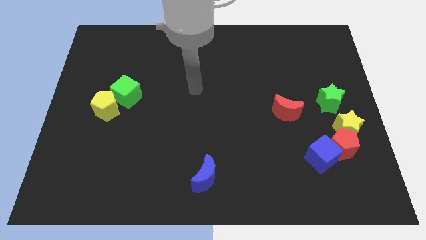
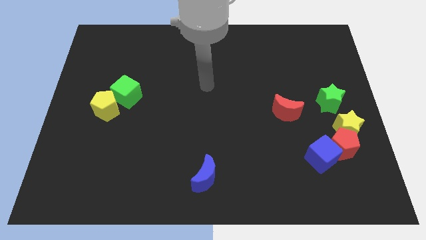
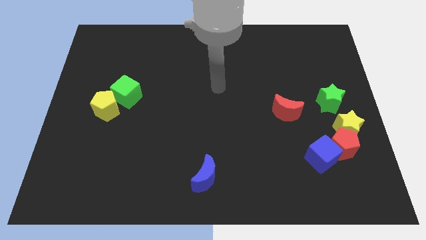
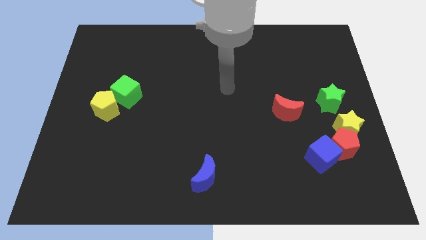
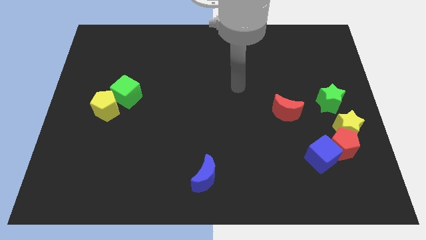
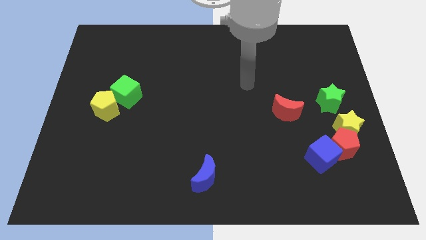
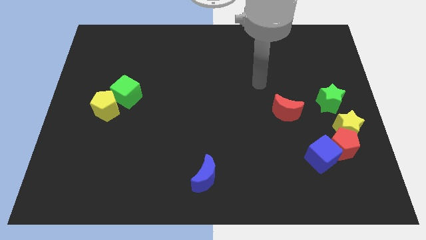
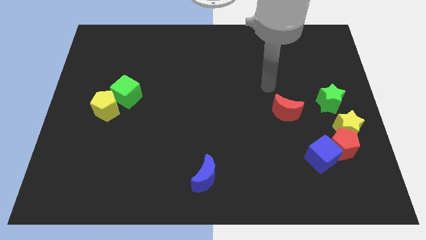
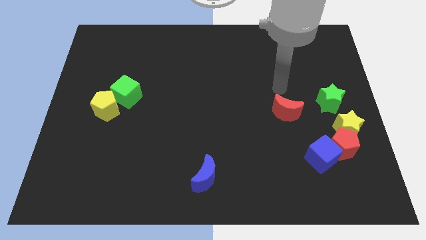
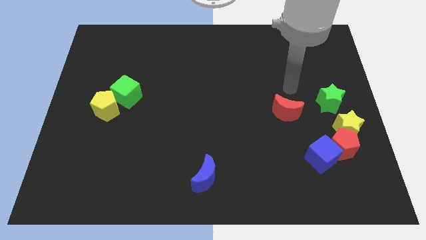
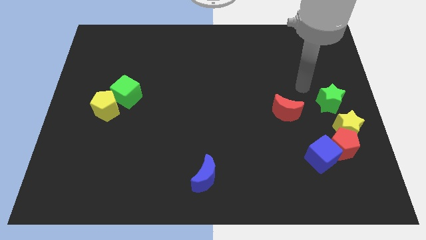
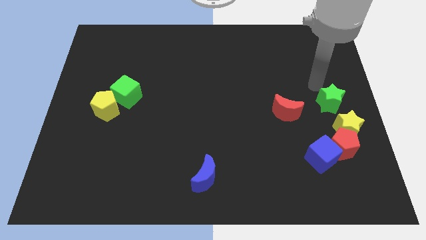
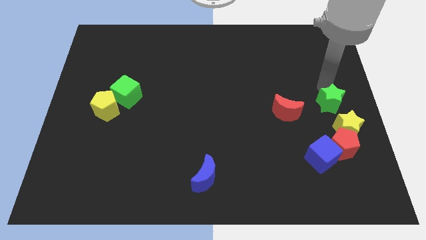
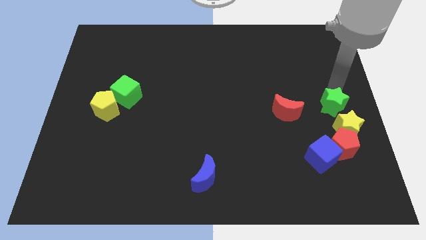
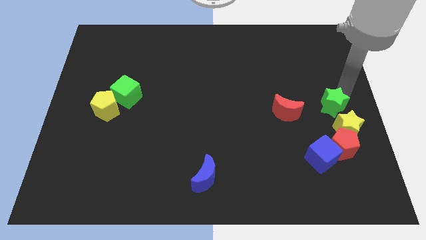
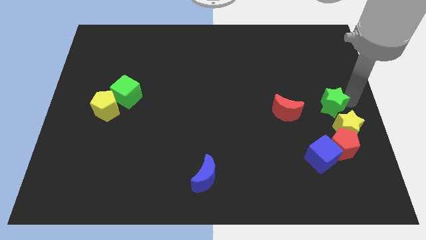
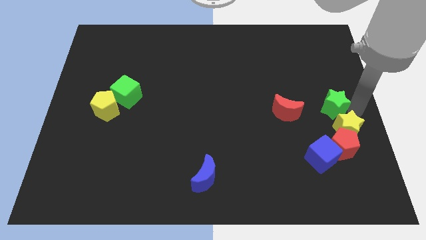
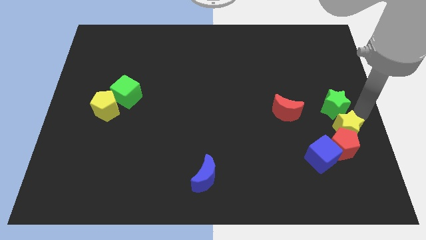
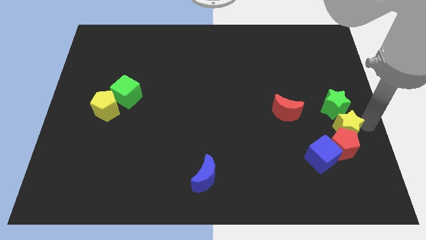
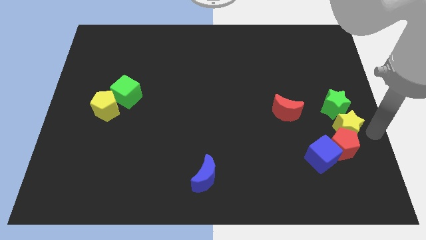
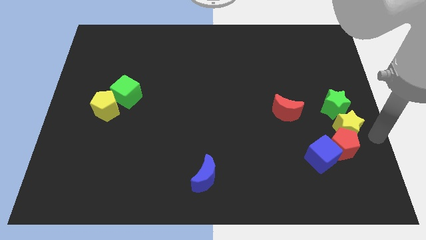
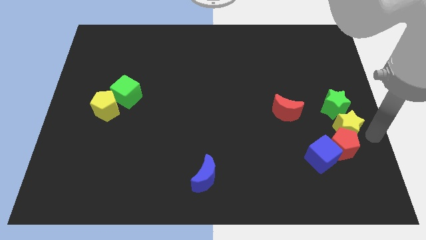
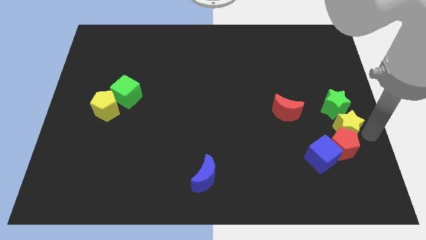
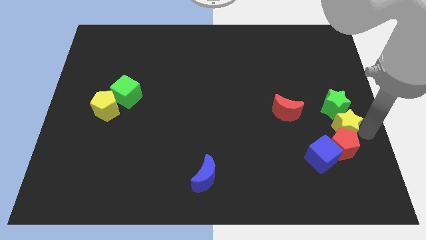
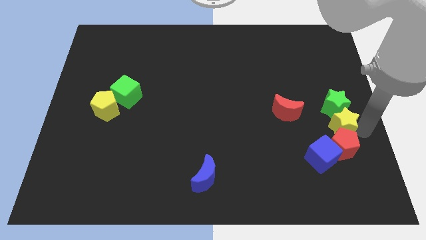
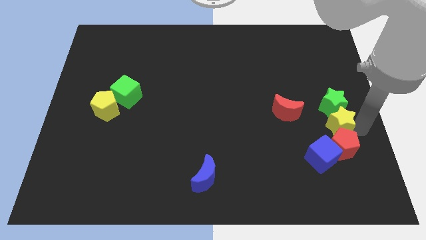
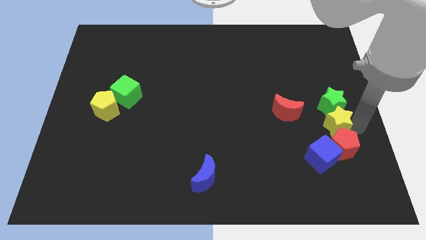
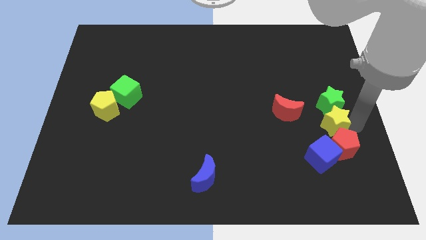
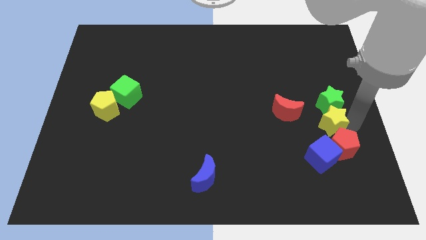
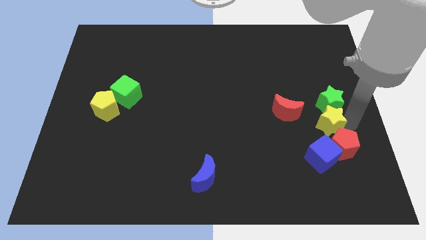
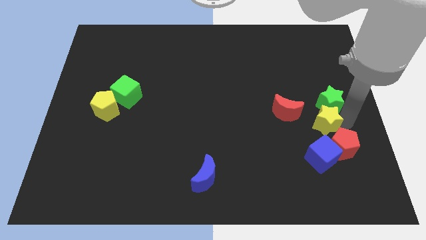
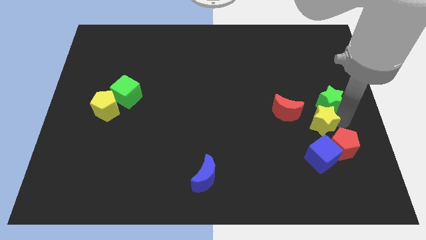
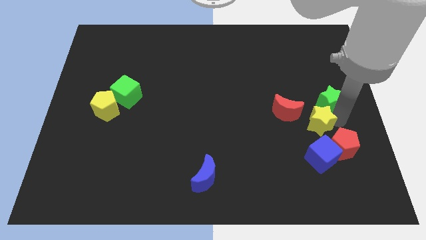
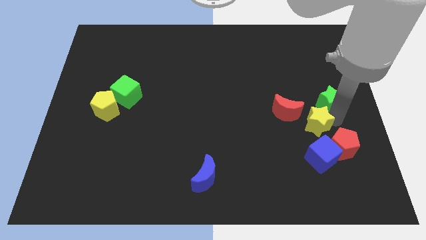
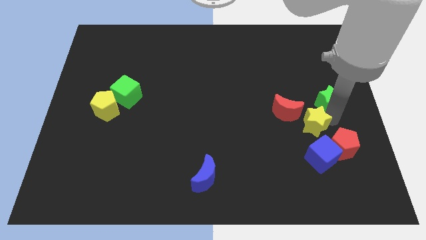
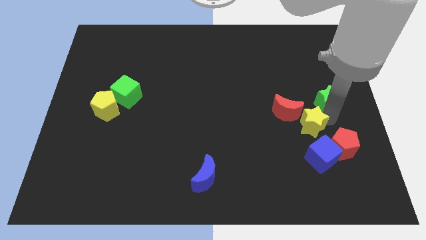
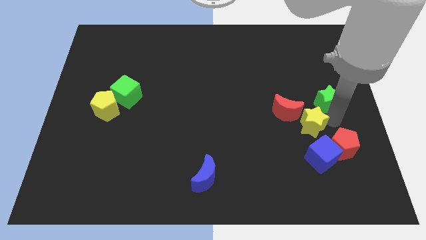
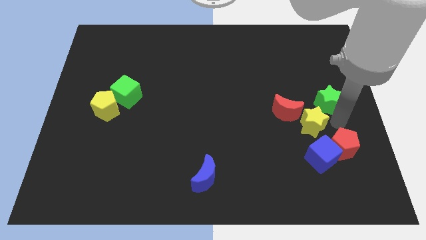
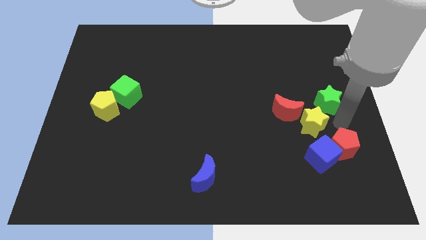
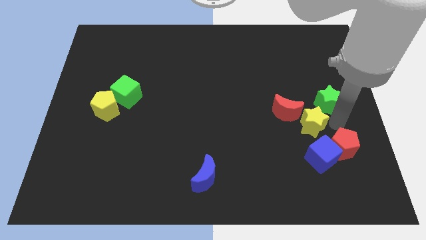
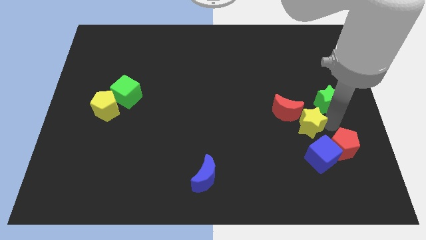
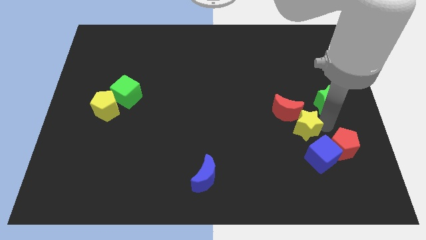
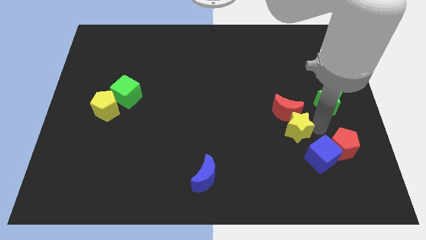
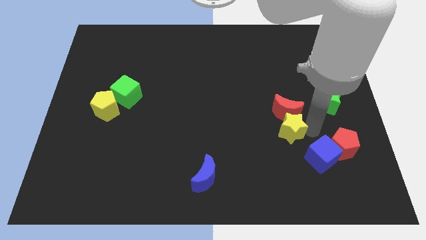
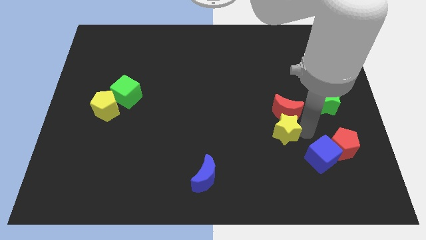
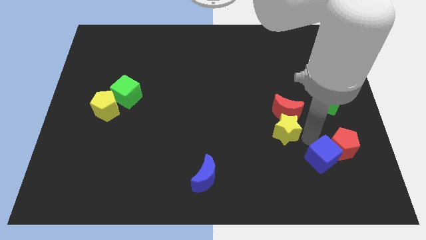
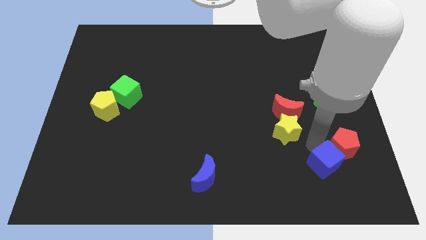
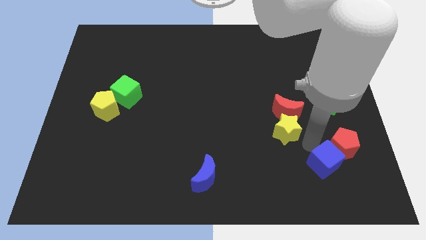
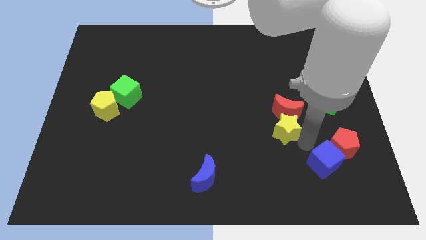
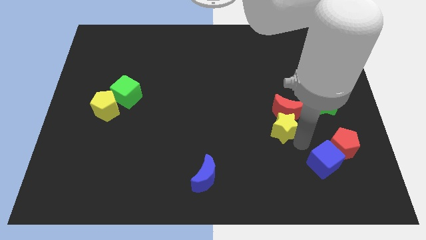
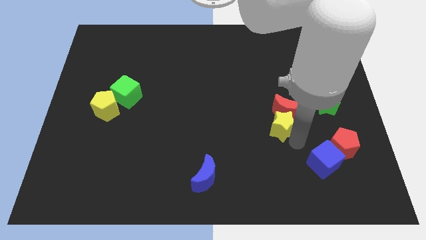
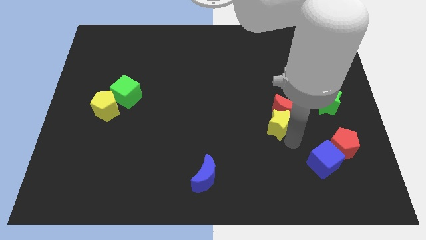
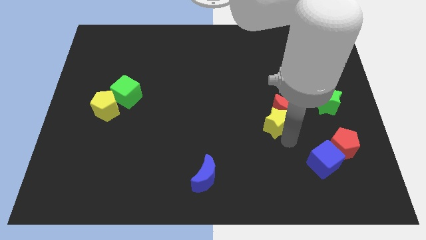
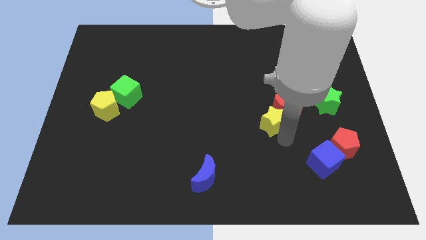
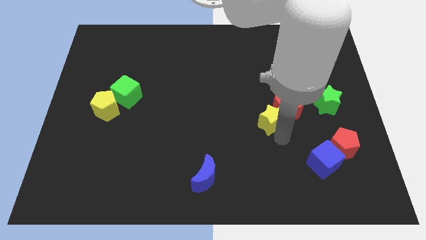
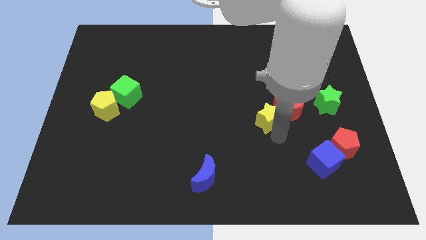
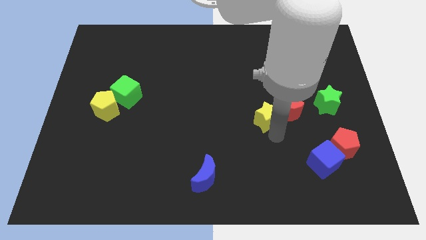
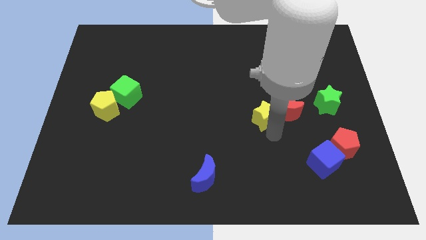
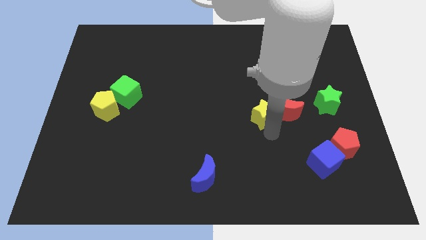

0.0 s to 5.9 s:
put the yellow star to the center
